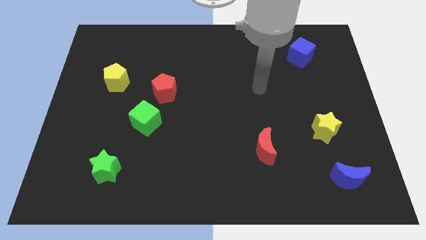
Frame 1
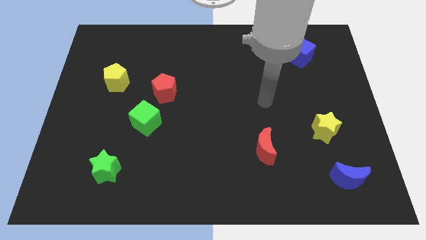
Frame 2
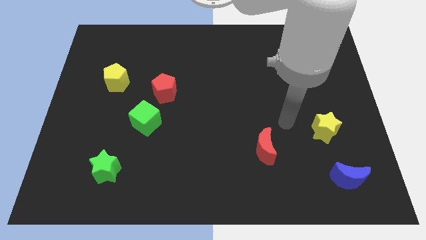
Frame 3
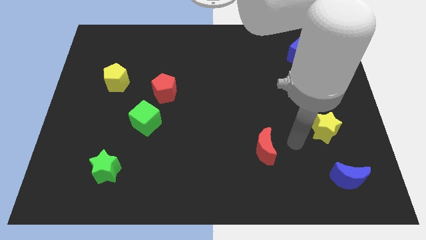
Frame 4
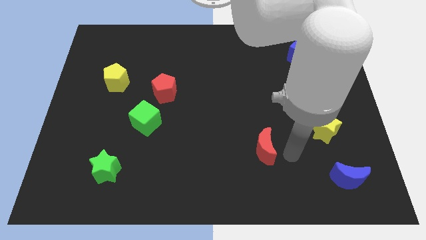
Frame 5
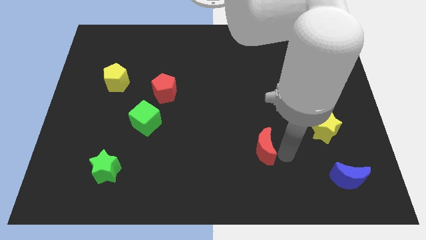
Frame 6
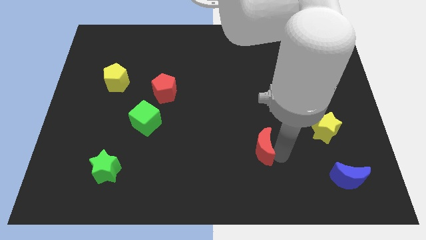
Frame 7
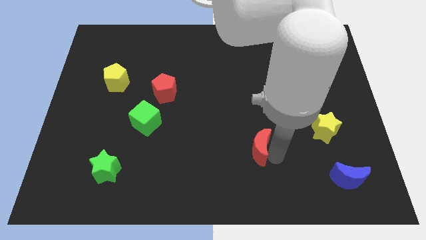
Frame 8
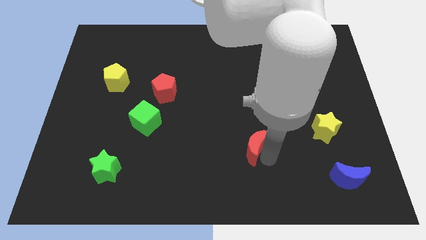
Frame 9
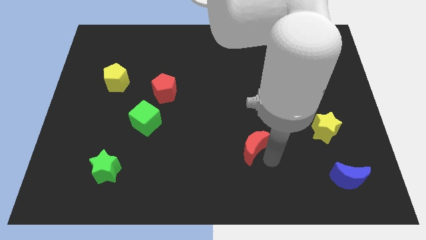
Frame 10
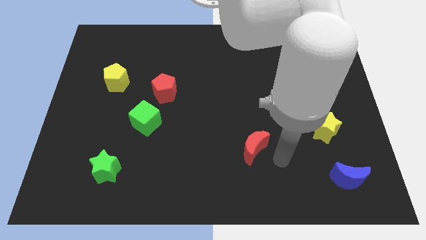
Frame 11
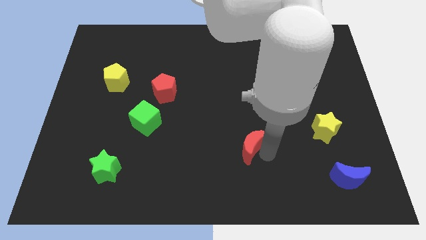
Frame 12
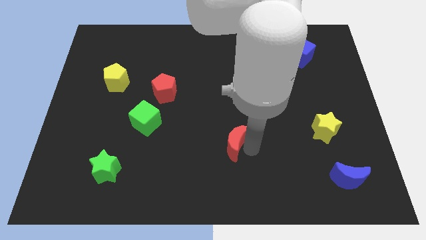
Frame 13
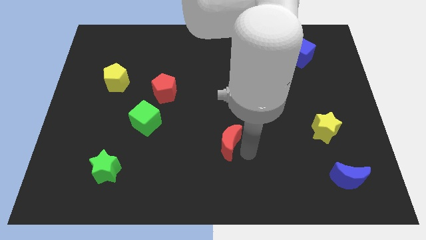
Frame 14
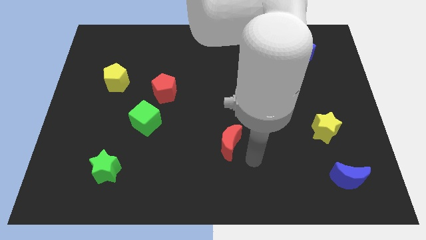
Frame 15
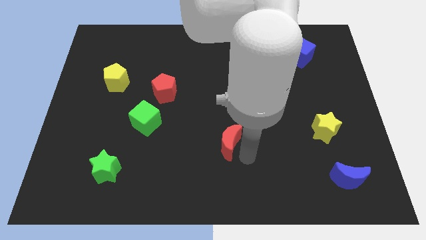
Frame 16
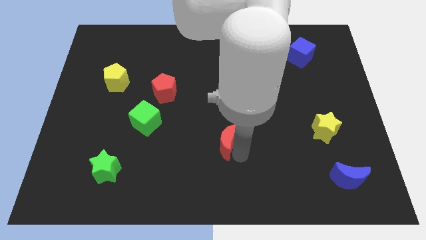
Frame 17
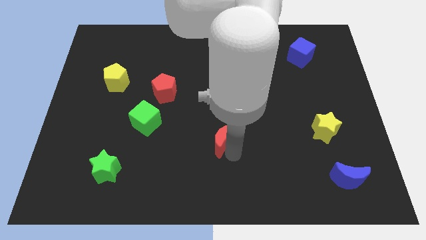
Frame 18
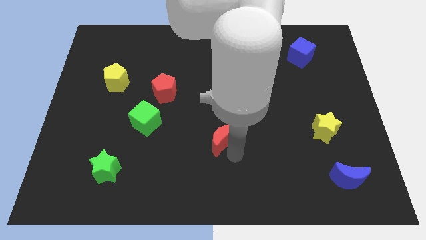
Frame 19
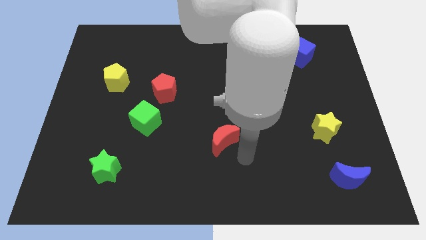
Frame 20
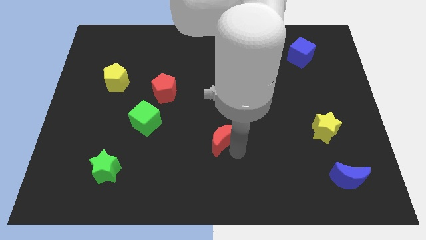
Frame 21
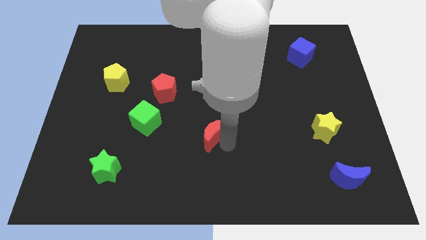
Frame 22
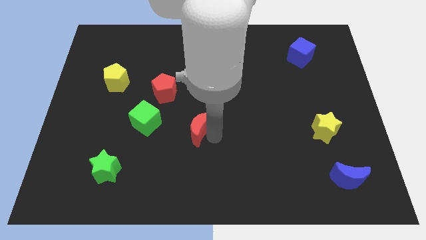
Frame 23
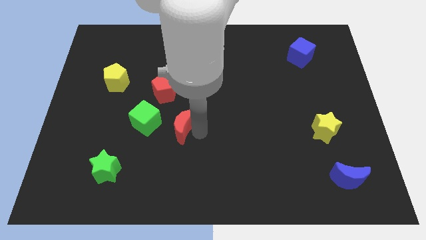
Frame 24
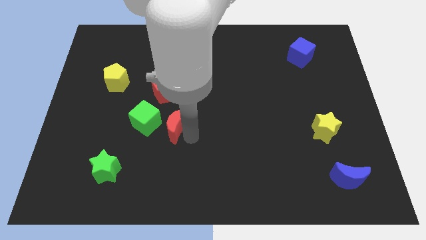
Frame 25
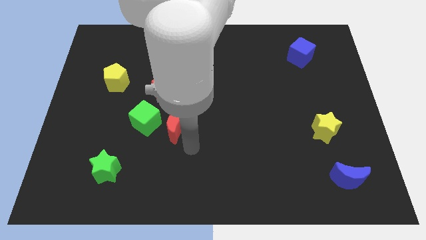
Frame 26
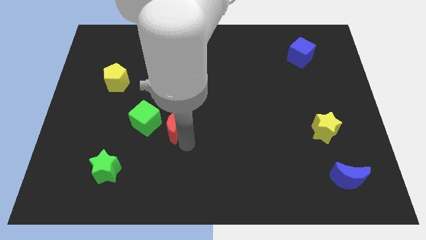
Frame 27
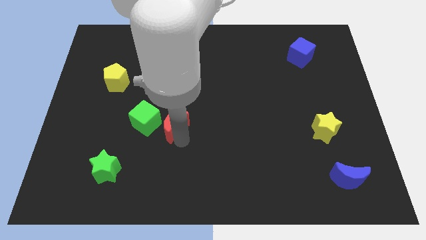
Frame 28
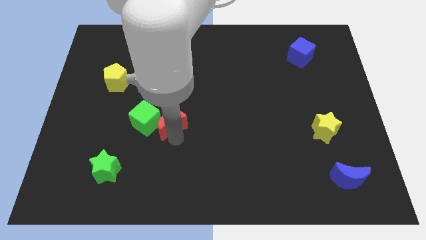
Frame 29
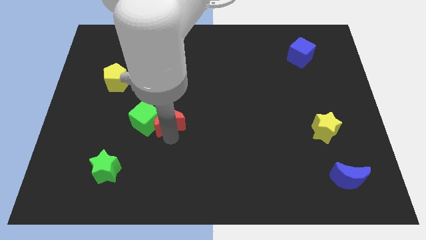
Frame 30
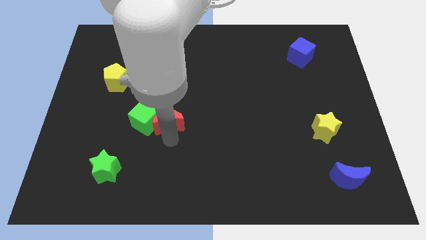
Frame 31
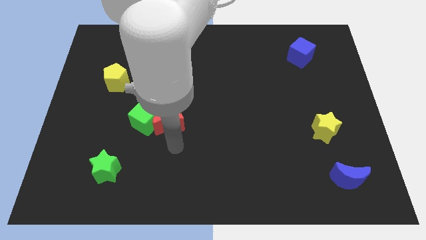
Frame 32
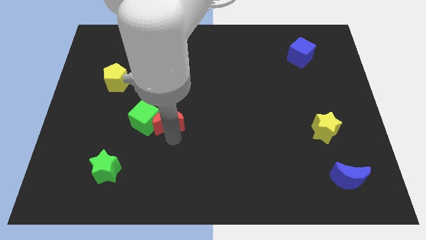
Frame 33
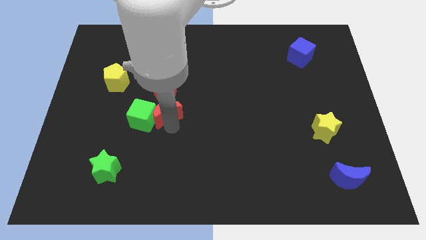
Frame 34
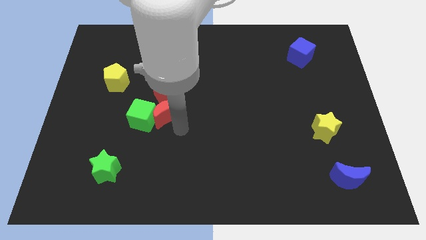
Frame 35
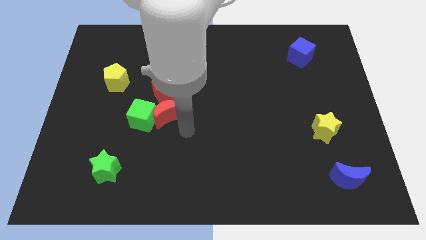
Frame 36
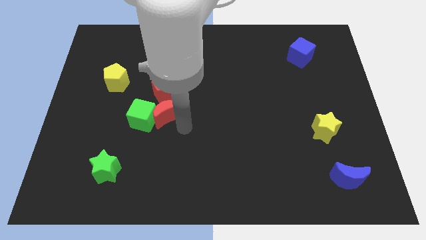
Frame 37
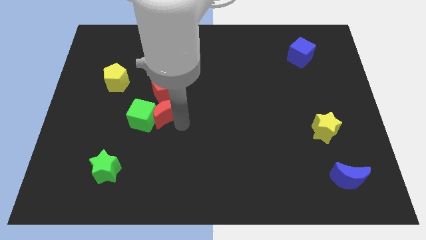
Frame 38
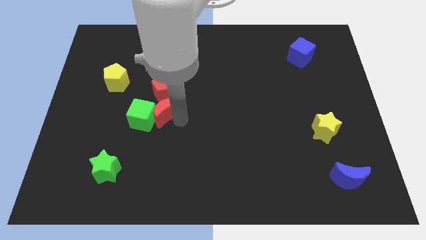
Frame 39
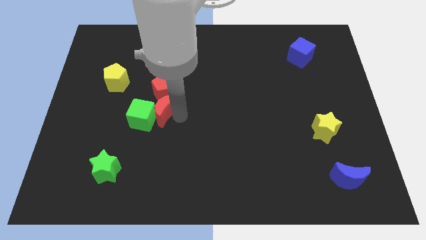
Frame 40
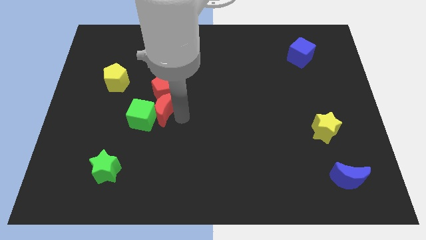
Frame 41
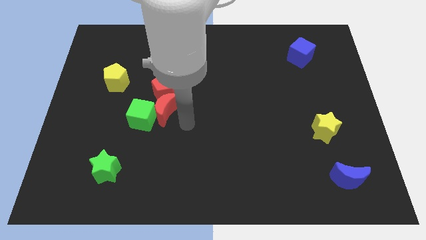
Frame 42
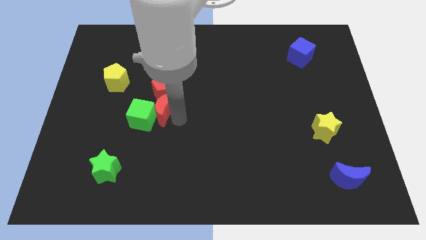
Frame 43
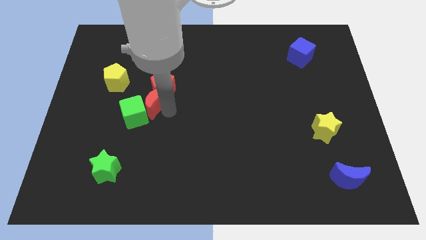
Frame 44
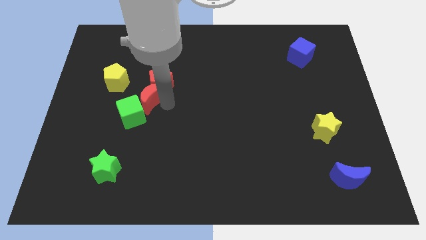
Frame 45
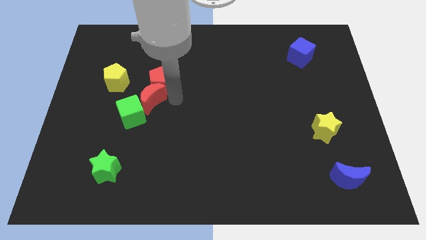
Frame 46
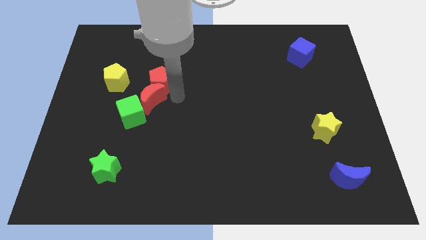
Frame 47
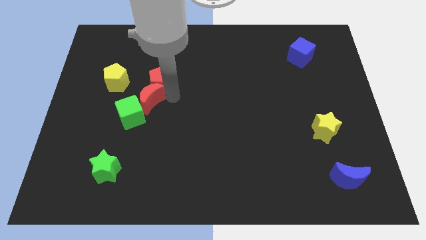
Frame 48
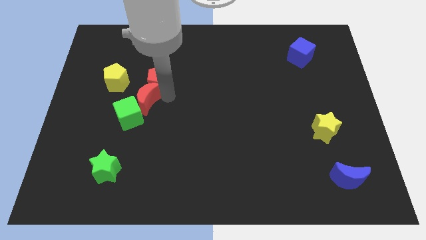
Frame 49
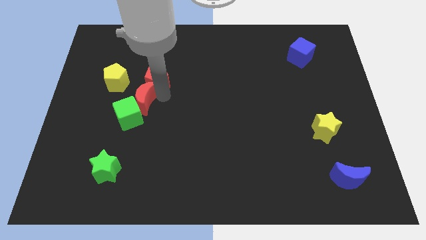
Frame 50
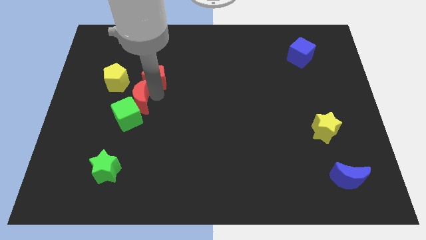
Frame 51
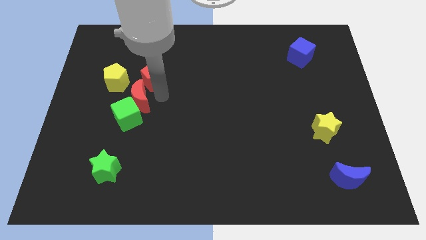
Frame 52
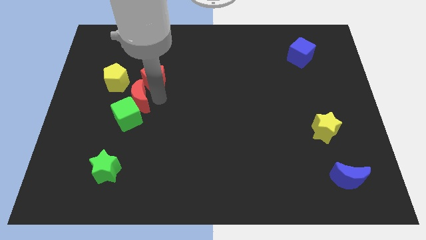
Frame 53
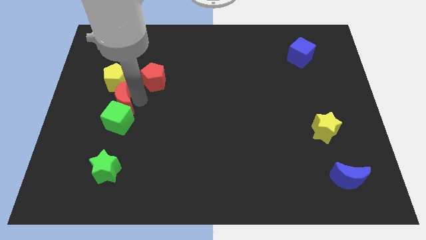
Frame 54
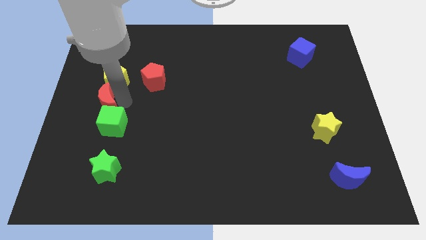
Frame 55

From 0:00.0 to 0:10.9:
slide the red moon to the center left

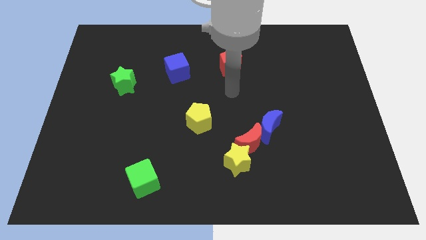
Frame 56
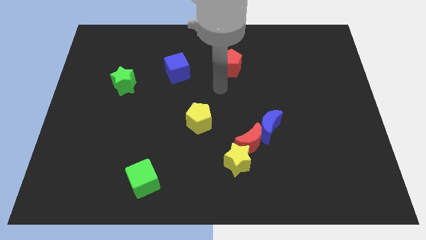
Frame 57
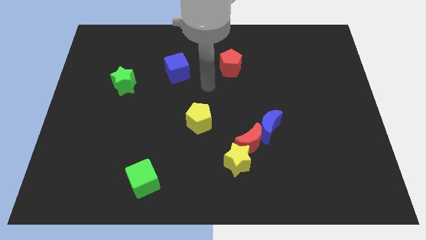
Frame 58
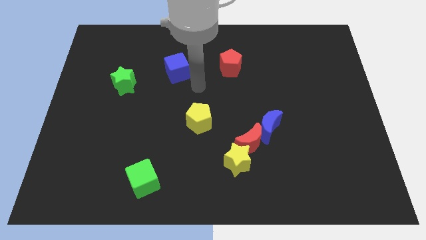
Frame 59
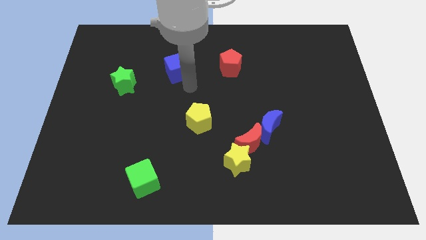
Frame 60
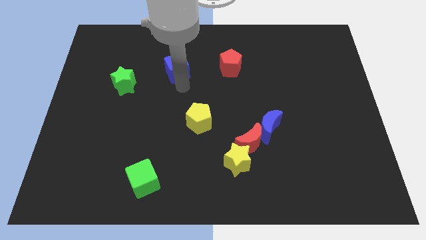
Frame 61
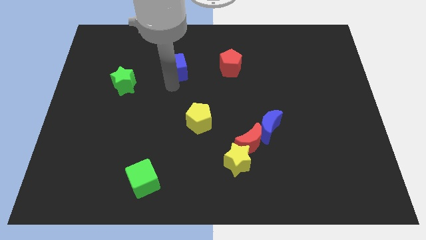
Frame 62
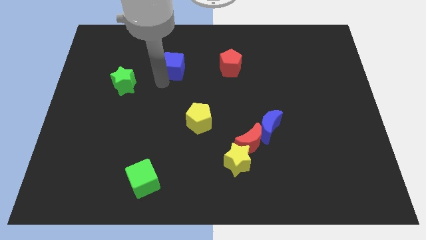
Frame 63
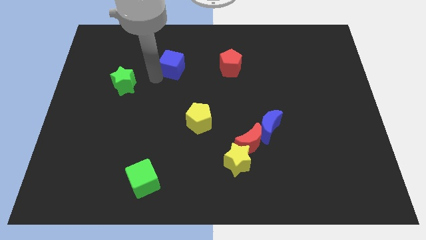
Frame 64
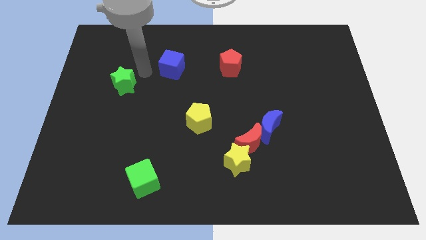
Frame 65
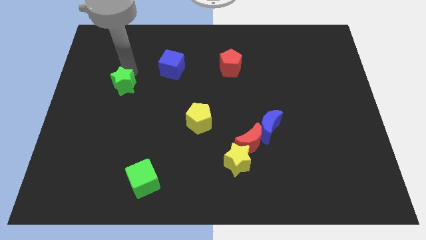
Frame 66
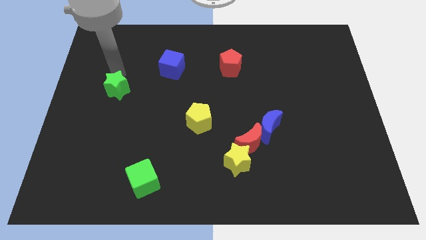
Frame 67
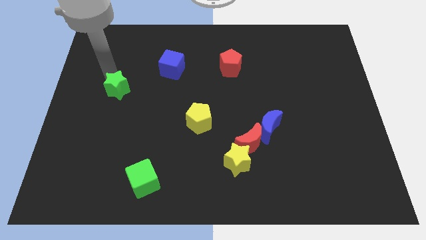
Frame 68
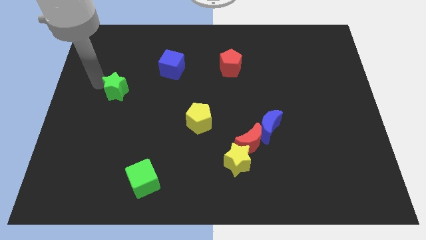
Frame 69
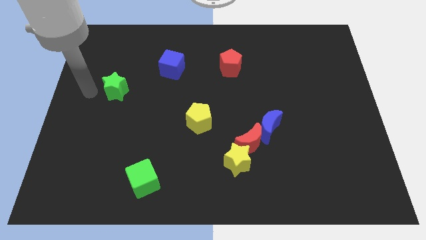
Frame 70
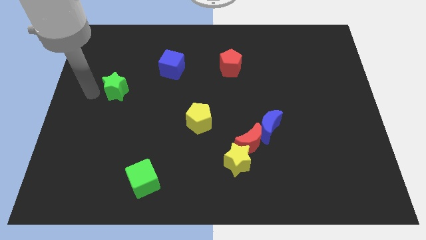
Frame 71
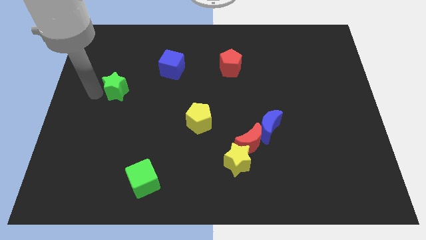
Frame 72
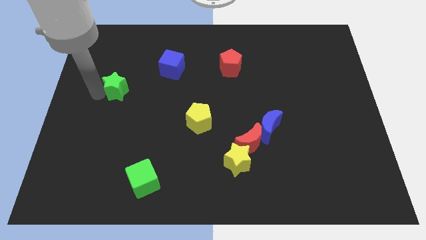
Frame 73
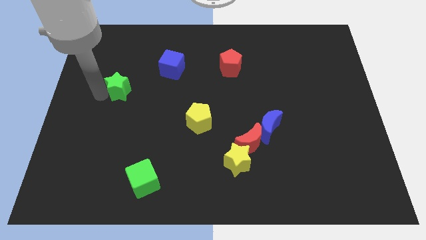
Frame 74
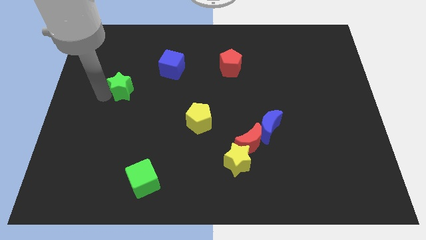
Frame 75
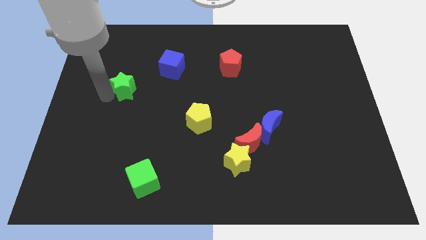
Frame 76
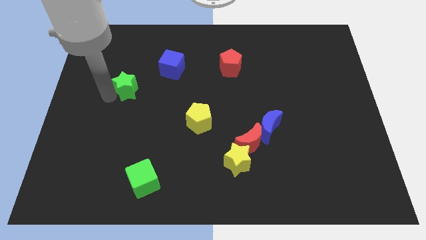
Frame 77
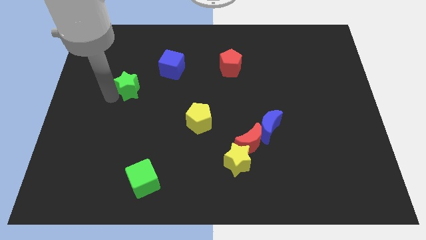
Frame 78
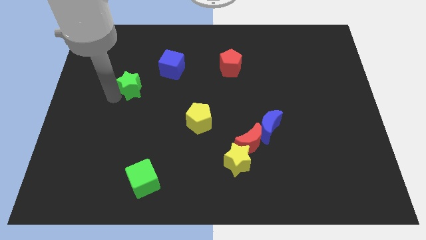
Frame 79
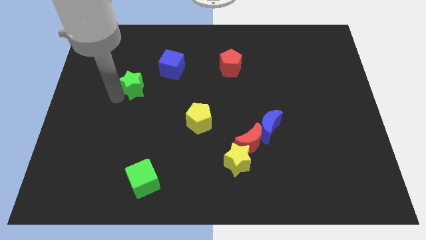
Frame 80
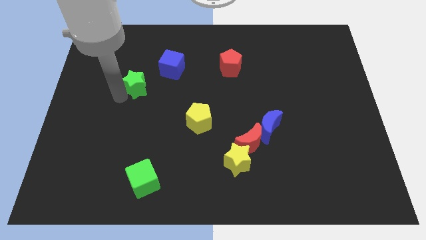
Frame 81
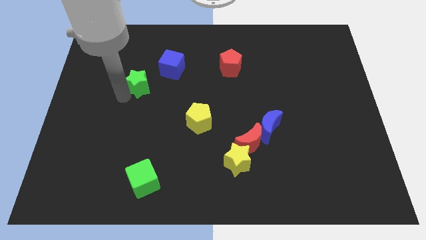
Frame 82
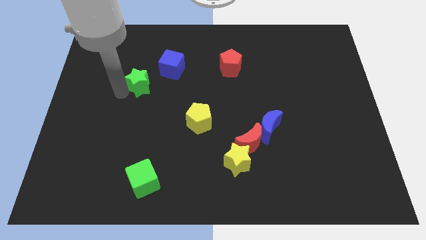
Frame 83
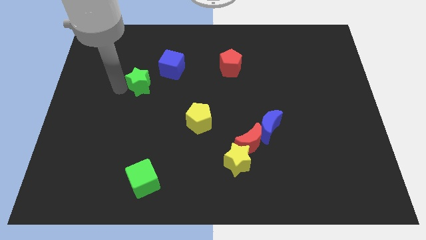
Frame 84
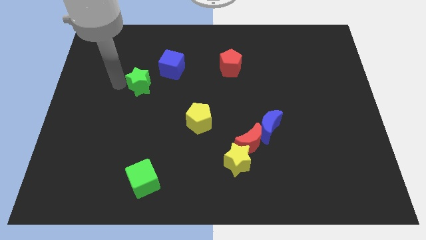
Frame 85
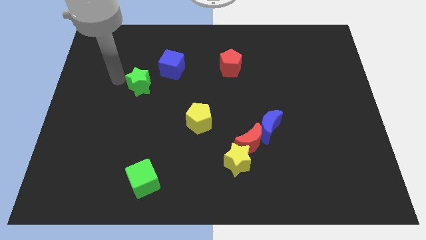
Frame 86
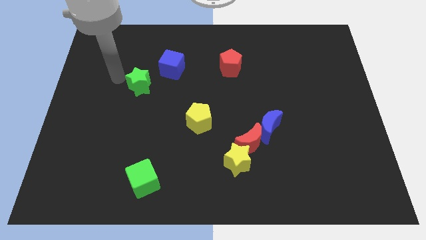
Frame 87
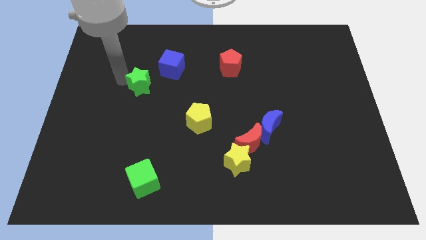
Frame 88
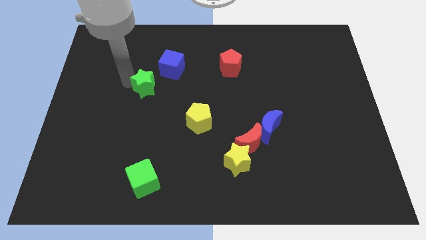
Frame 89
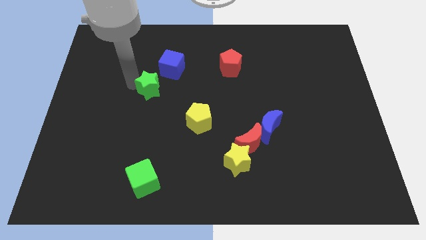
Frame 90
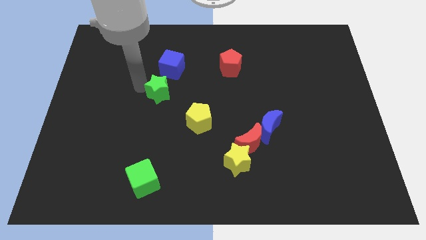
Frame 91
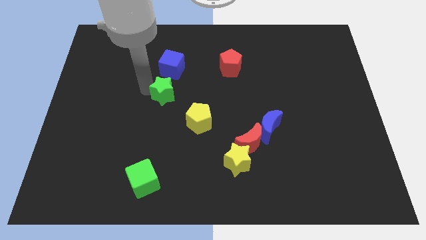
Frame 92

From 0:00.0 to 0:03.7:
slide the green star to the middle
